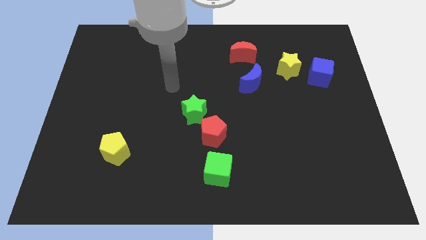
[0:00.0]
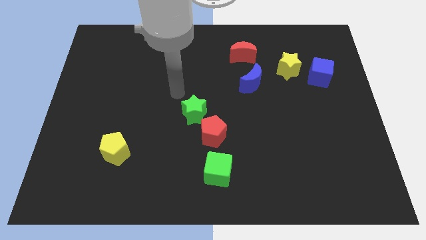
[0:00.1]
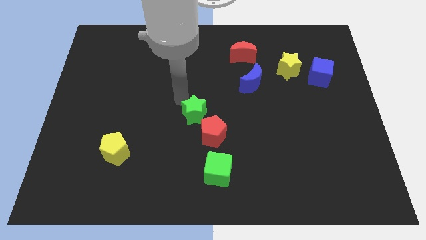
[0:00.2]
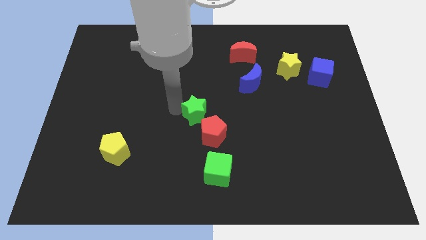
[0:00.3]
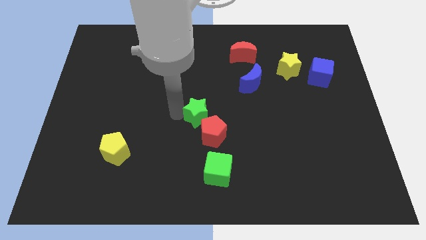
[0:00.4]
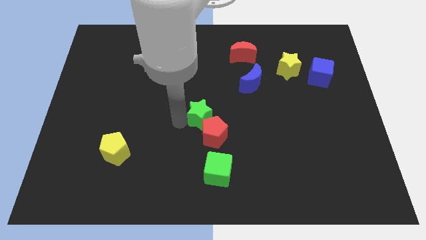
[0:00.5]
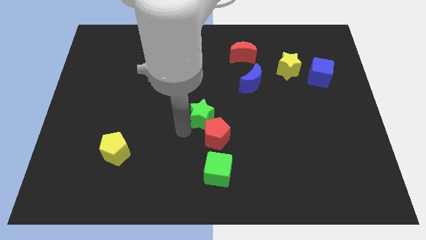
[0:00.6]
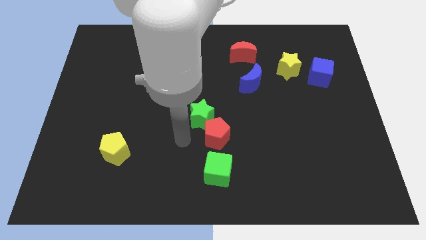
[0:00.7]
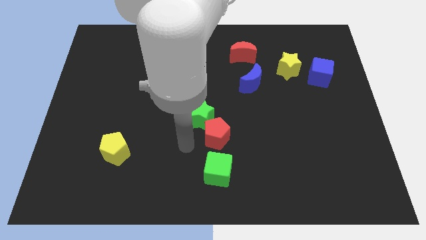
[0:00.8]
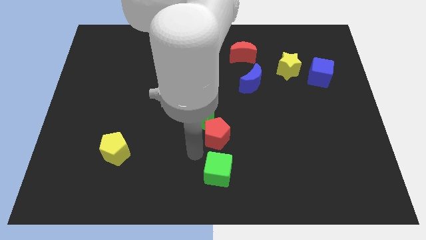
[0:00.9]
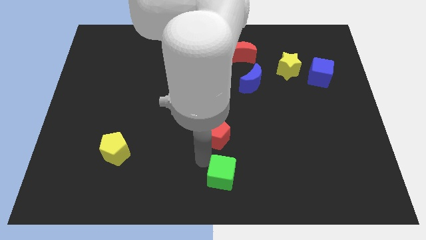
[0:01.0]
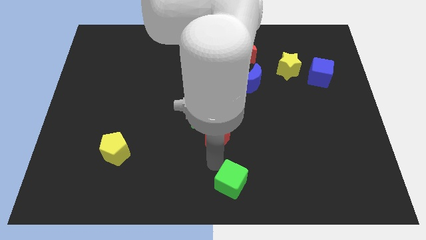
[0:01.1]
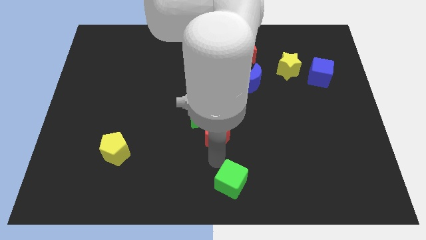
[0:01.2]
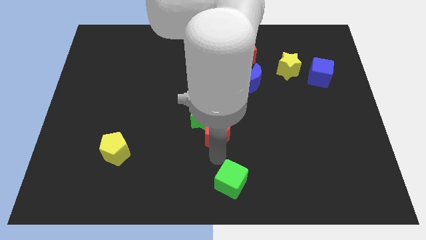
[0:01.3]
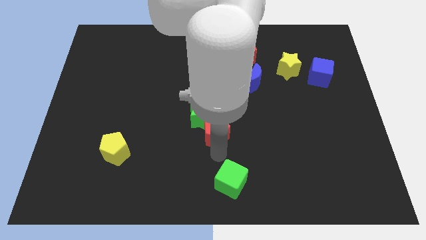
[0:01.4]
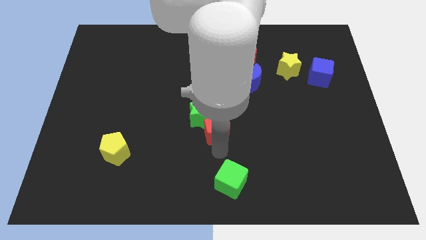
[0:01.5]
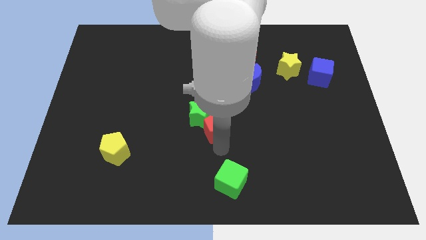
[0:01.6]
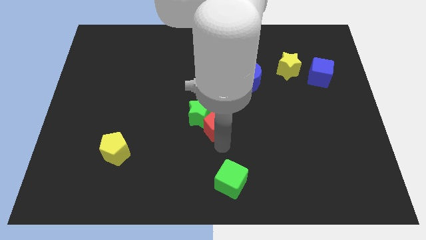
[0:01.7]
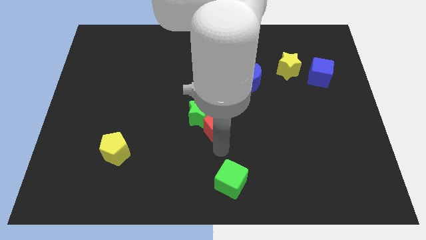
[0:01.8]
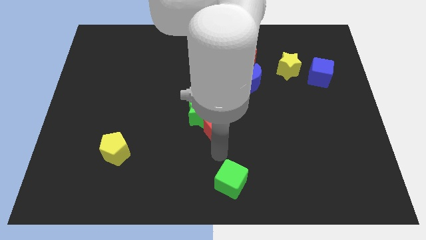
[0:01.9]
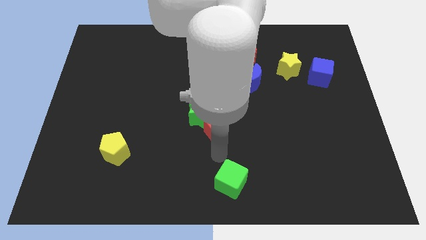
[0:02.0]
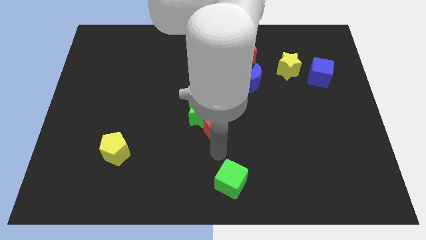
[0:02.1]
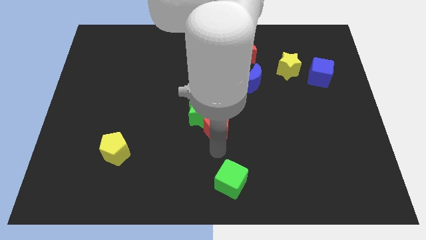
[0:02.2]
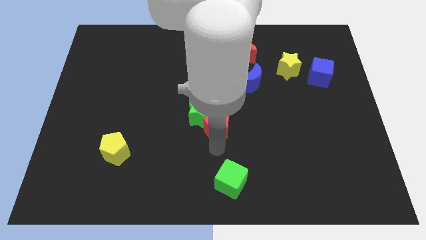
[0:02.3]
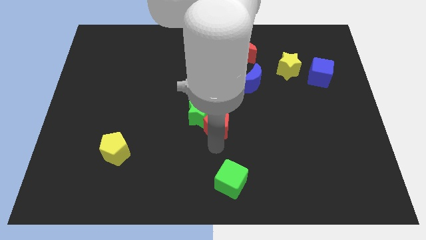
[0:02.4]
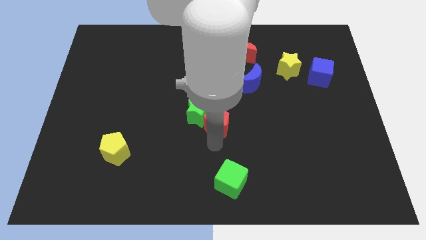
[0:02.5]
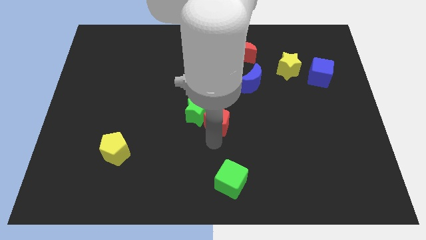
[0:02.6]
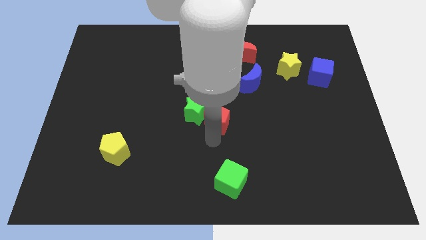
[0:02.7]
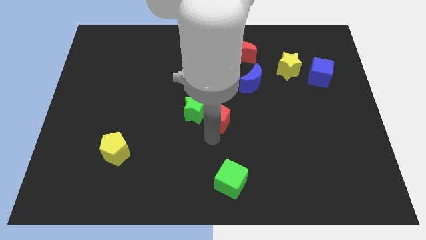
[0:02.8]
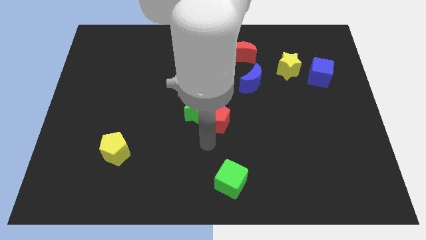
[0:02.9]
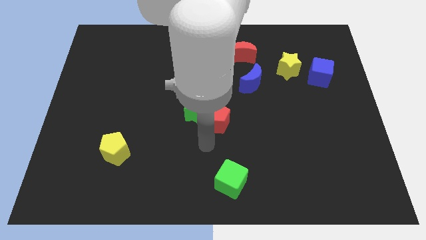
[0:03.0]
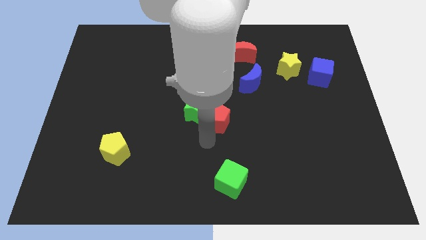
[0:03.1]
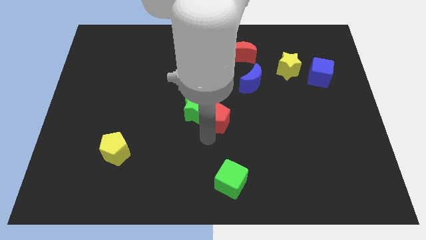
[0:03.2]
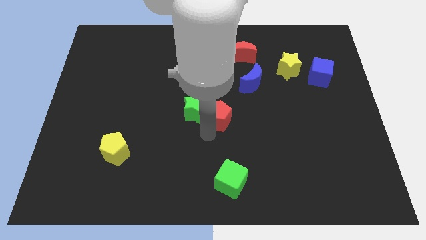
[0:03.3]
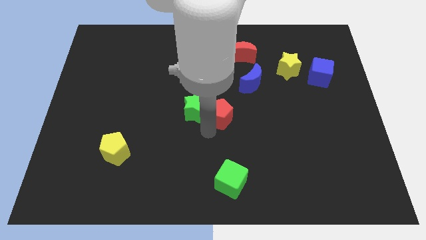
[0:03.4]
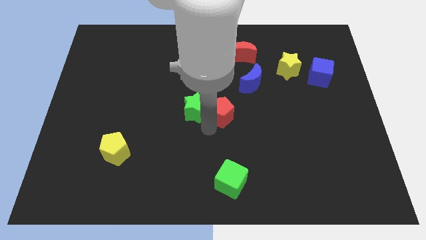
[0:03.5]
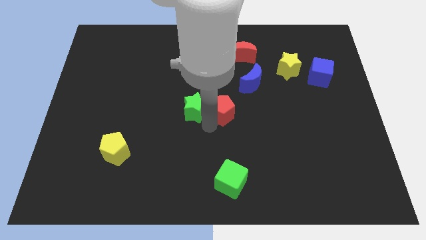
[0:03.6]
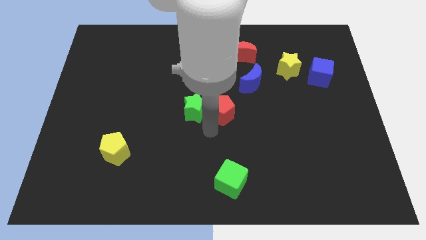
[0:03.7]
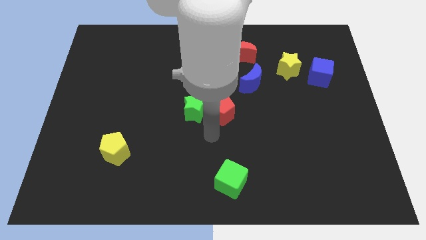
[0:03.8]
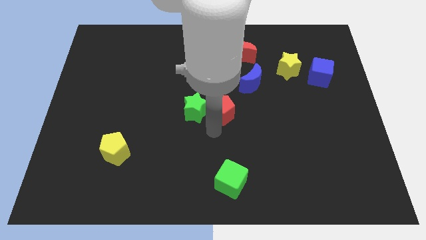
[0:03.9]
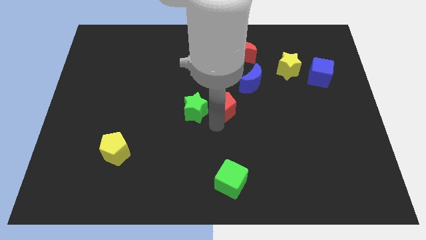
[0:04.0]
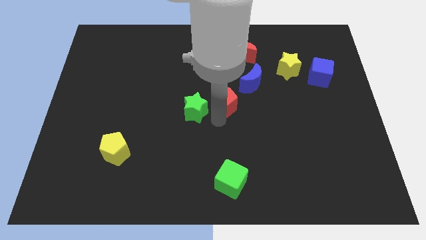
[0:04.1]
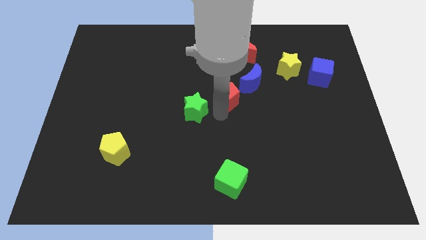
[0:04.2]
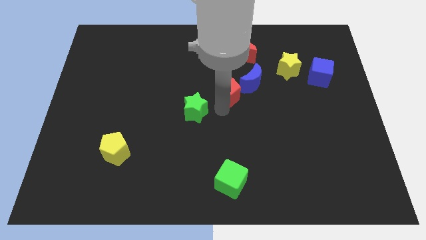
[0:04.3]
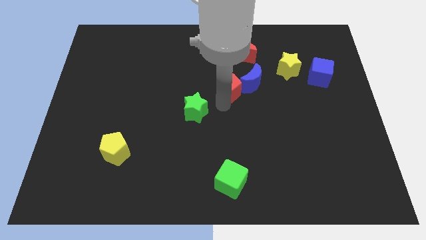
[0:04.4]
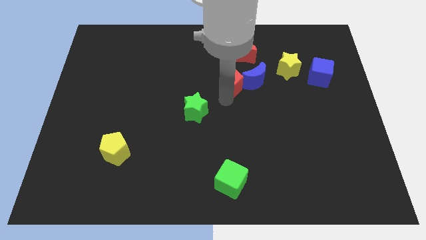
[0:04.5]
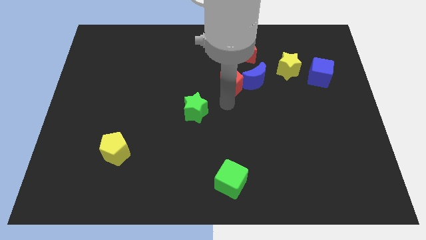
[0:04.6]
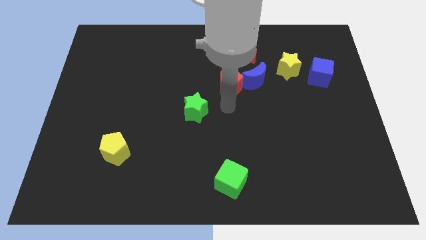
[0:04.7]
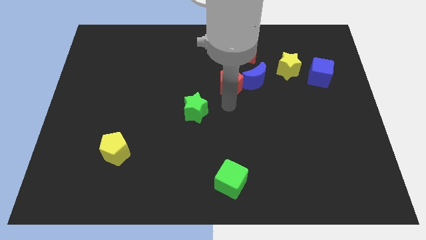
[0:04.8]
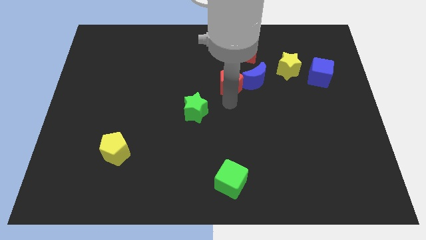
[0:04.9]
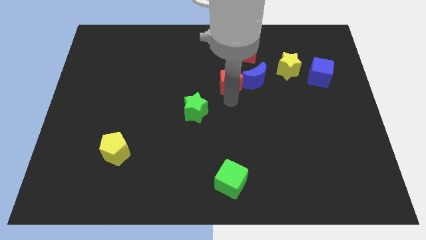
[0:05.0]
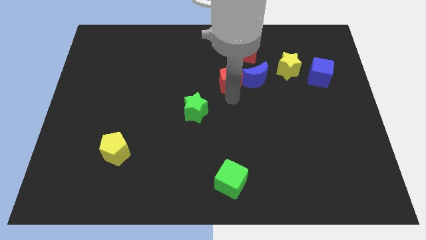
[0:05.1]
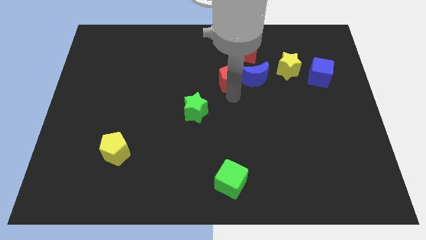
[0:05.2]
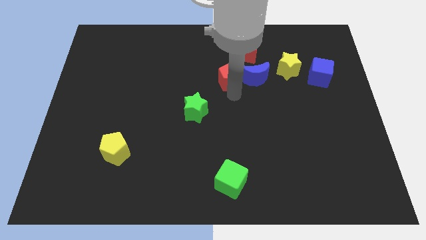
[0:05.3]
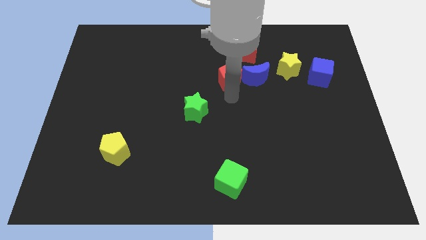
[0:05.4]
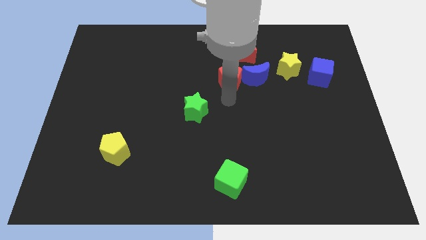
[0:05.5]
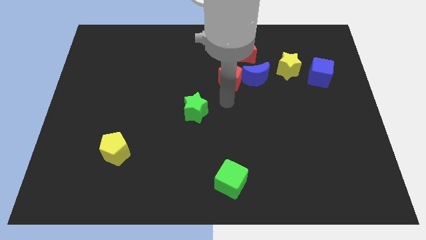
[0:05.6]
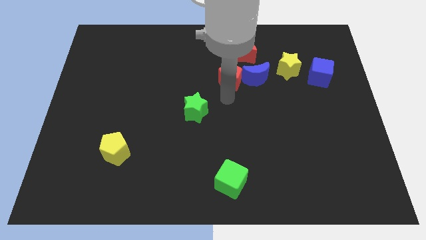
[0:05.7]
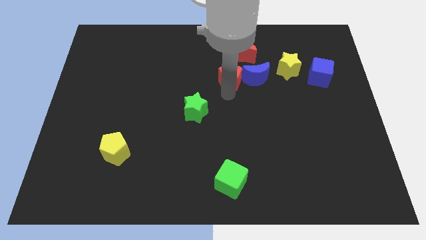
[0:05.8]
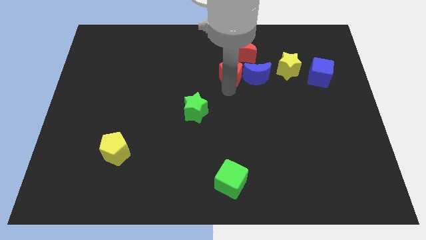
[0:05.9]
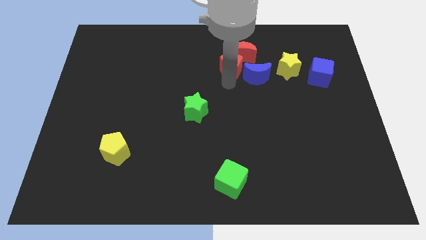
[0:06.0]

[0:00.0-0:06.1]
move the red pentagon to the red moon

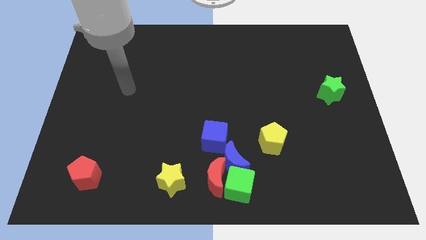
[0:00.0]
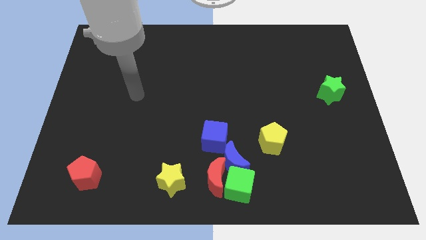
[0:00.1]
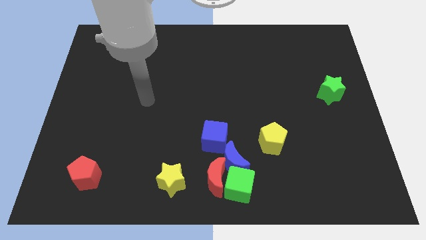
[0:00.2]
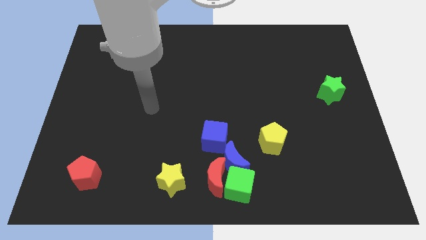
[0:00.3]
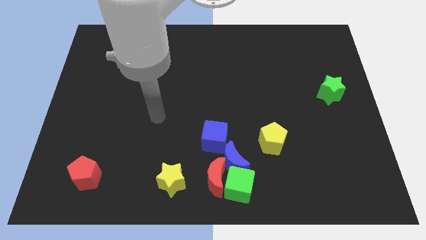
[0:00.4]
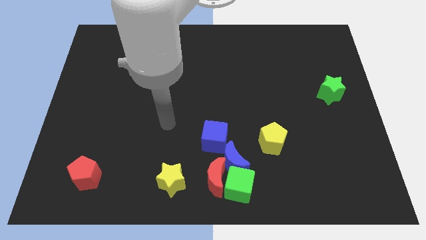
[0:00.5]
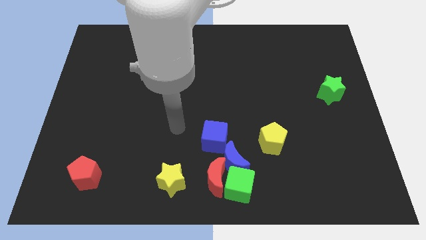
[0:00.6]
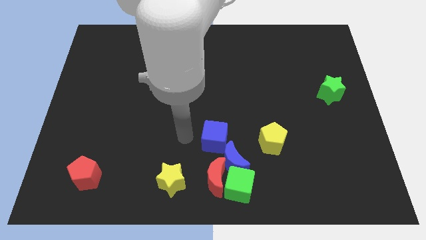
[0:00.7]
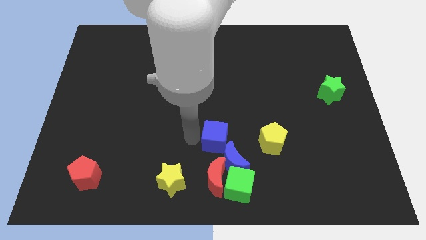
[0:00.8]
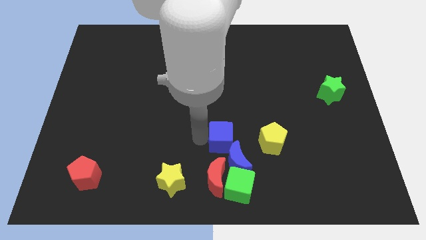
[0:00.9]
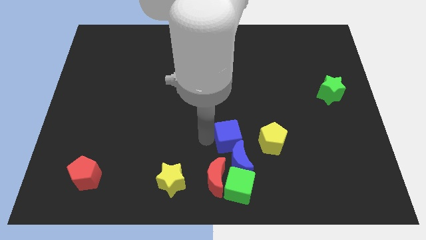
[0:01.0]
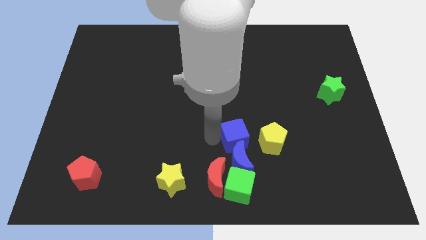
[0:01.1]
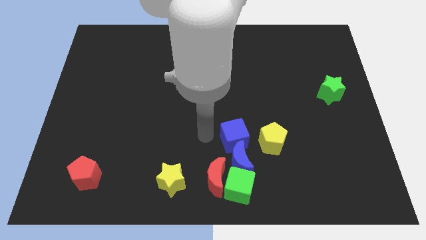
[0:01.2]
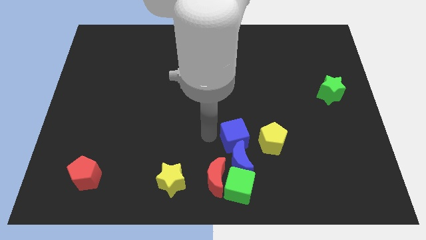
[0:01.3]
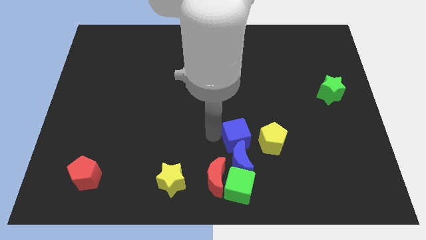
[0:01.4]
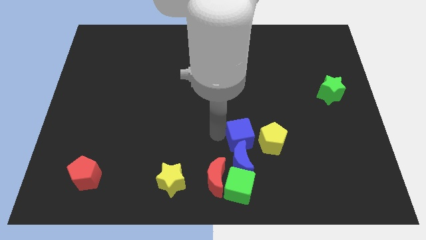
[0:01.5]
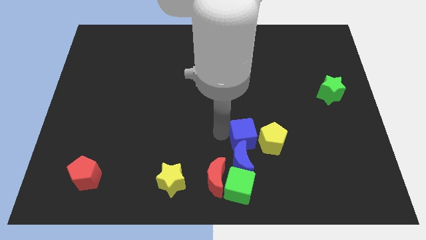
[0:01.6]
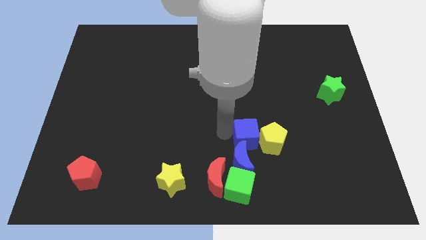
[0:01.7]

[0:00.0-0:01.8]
slide the blue cube close to the yellow pentagon
